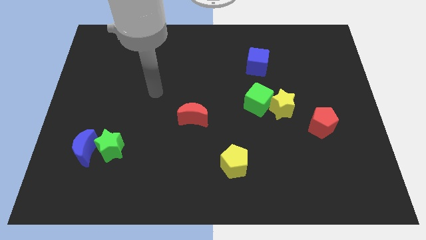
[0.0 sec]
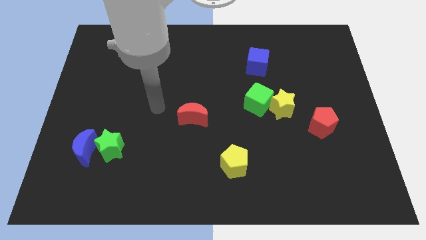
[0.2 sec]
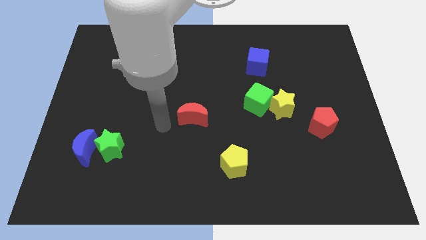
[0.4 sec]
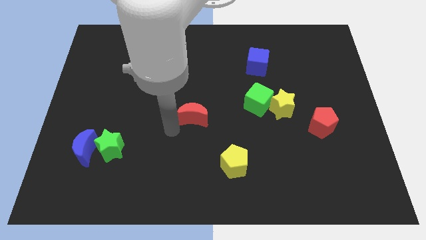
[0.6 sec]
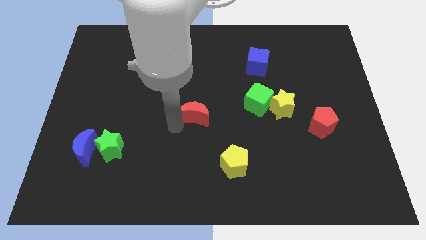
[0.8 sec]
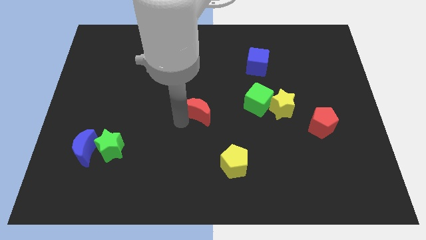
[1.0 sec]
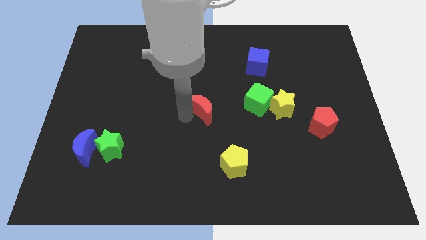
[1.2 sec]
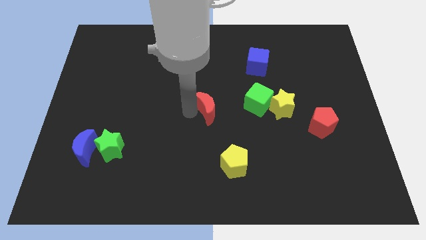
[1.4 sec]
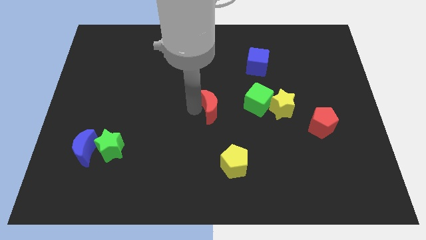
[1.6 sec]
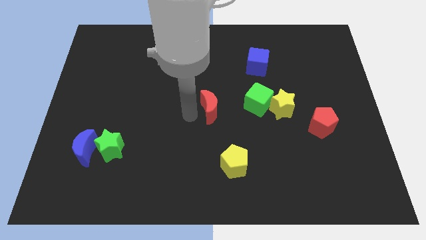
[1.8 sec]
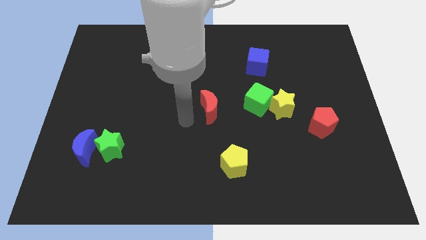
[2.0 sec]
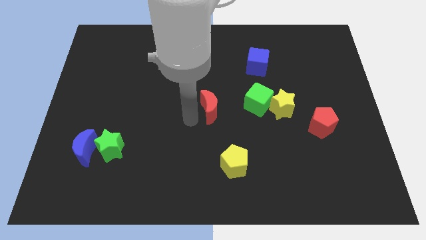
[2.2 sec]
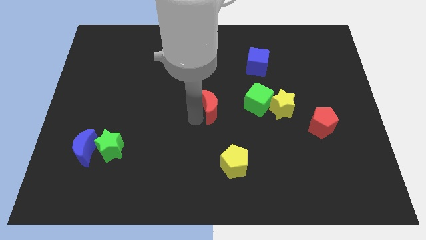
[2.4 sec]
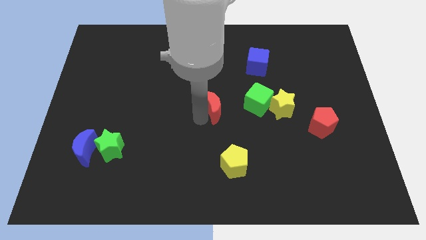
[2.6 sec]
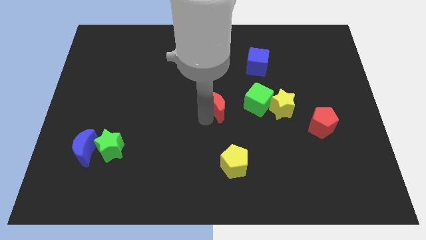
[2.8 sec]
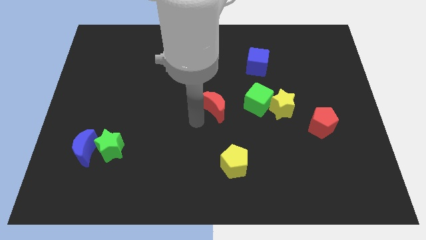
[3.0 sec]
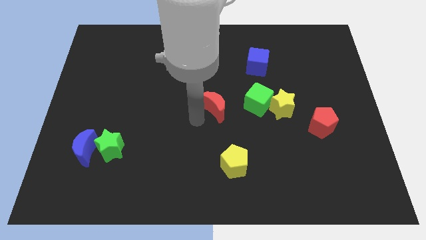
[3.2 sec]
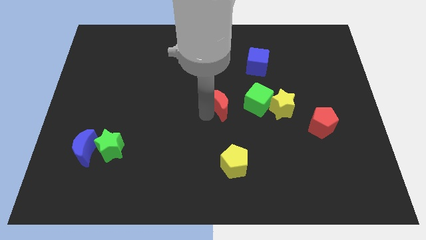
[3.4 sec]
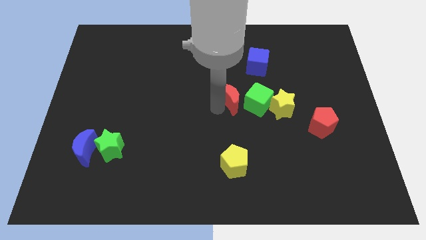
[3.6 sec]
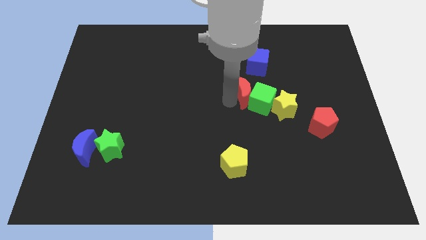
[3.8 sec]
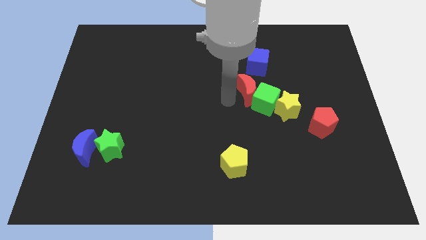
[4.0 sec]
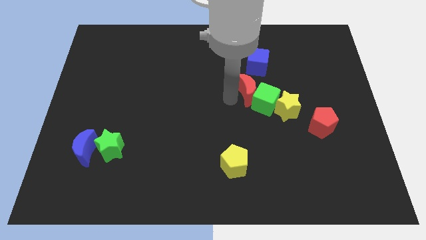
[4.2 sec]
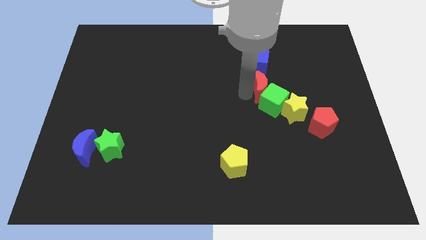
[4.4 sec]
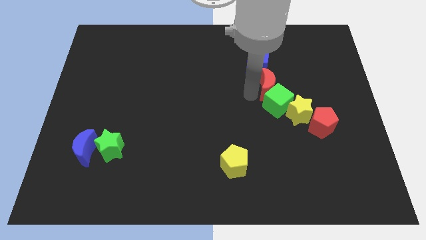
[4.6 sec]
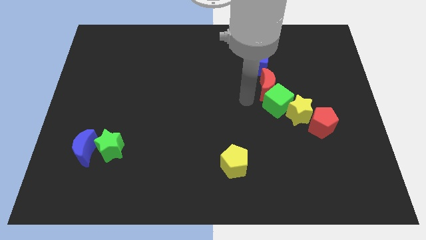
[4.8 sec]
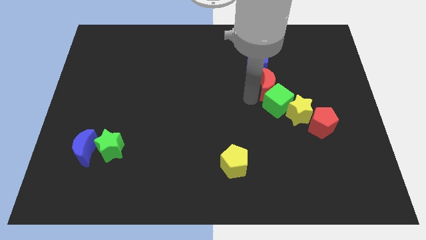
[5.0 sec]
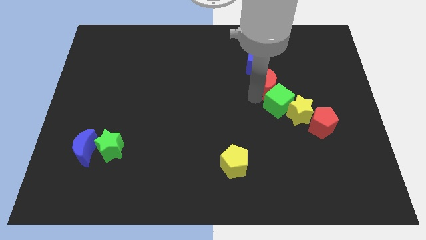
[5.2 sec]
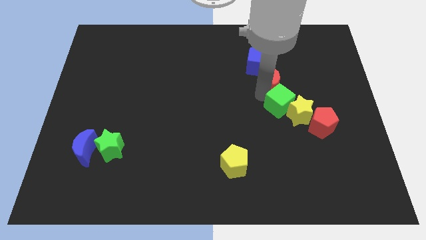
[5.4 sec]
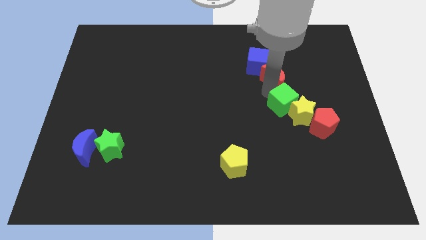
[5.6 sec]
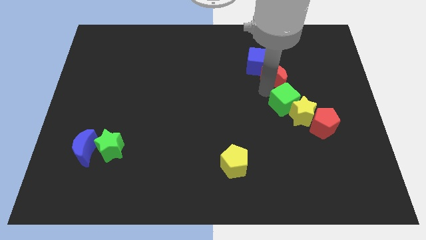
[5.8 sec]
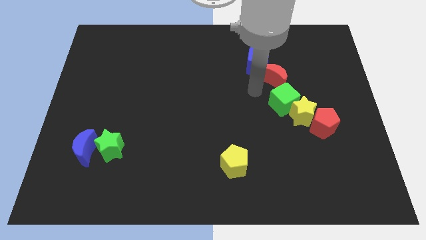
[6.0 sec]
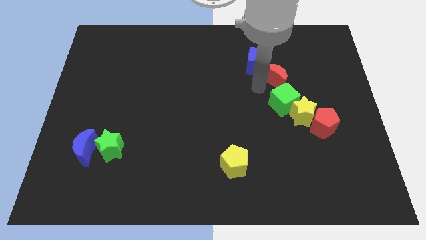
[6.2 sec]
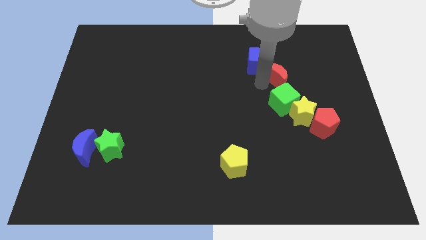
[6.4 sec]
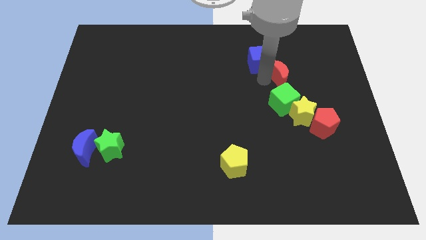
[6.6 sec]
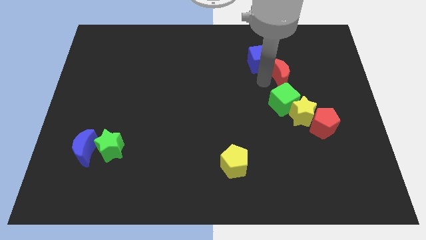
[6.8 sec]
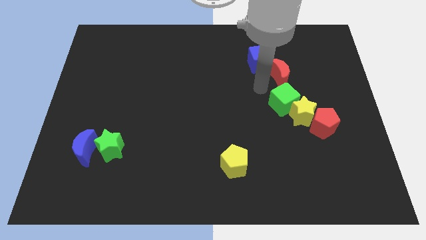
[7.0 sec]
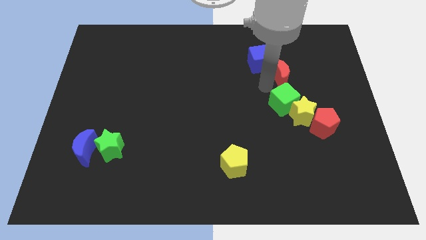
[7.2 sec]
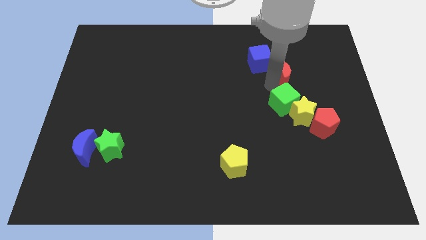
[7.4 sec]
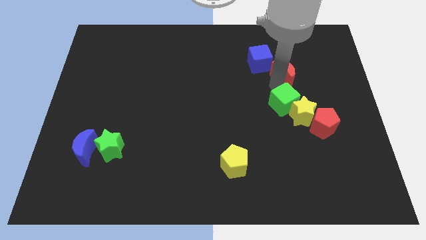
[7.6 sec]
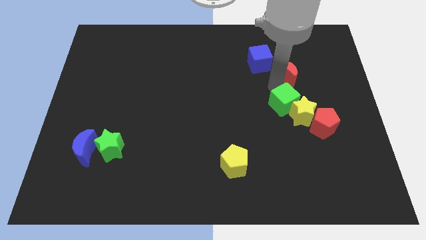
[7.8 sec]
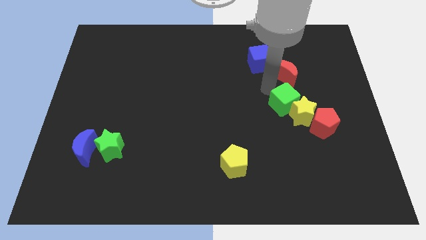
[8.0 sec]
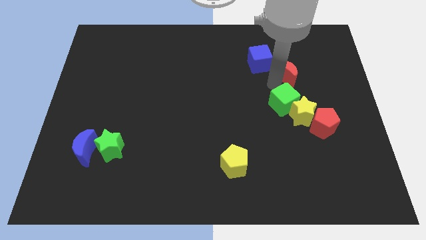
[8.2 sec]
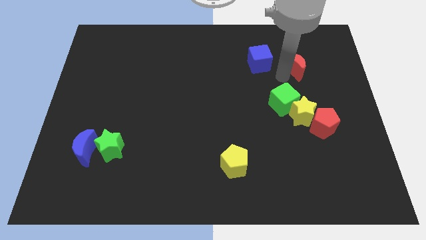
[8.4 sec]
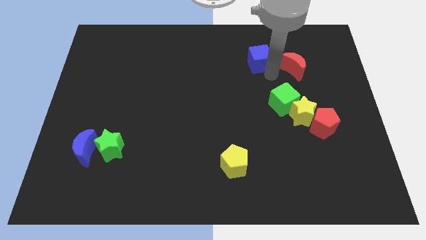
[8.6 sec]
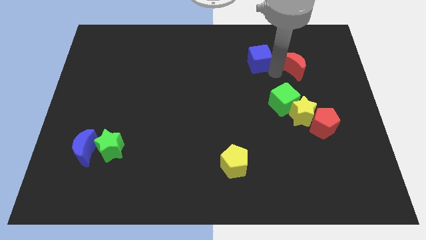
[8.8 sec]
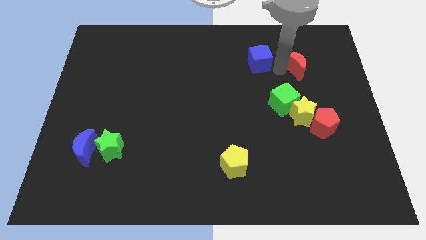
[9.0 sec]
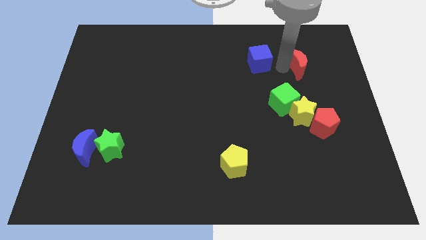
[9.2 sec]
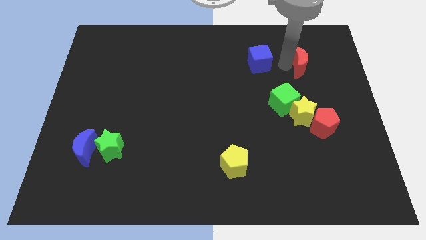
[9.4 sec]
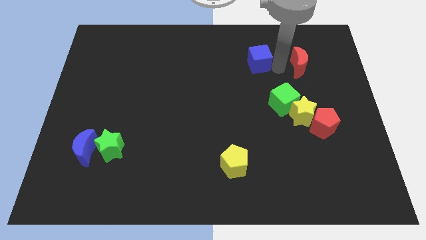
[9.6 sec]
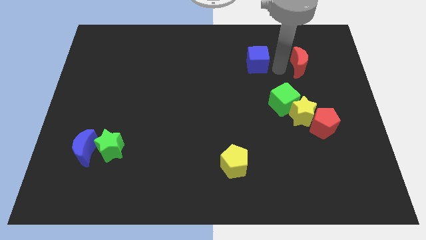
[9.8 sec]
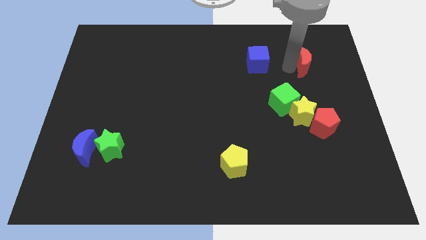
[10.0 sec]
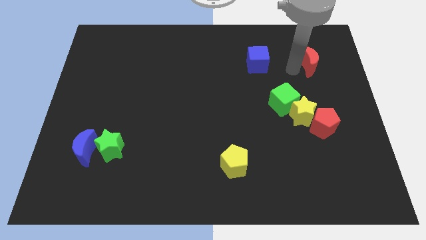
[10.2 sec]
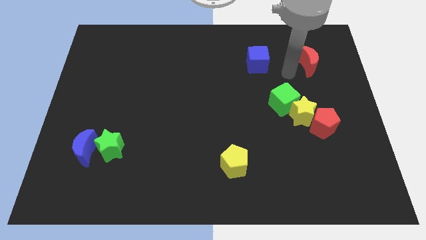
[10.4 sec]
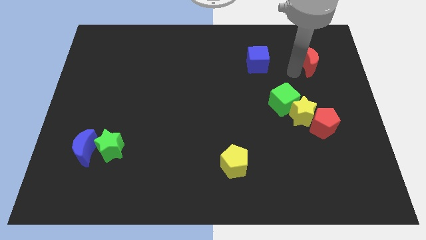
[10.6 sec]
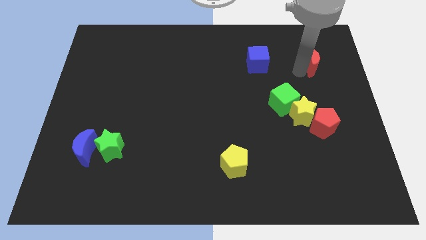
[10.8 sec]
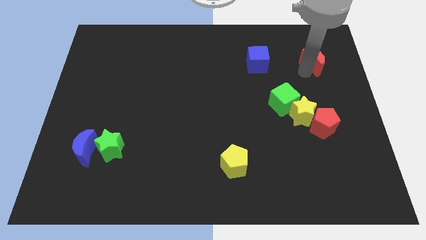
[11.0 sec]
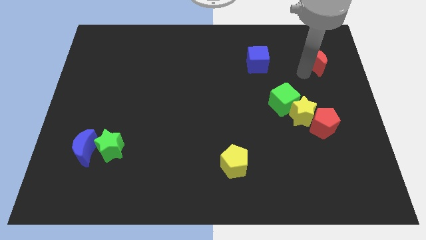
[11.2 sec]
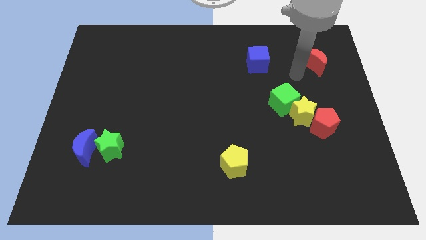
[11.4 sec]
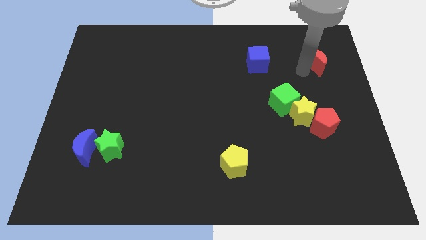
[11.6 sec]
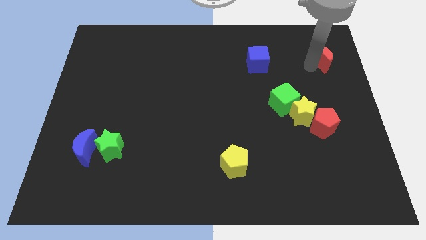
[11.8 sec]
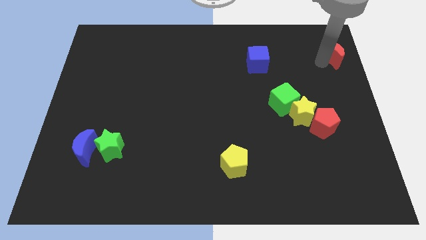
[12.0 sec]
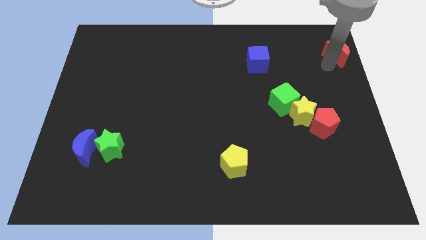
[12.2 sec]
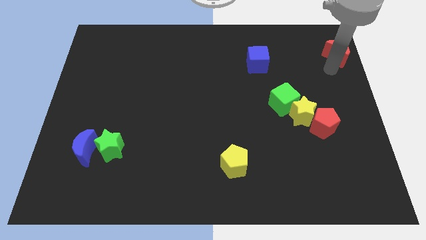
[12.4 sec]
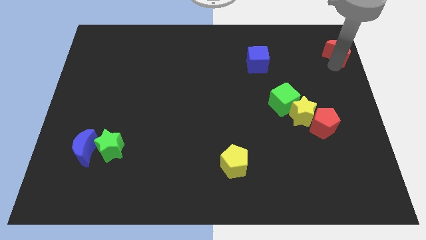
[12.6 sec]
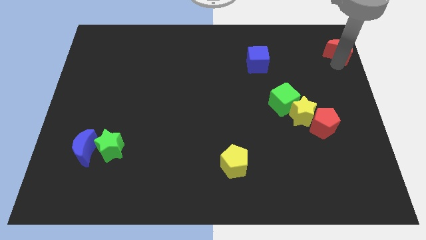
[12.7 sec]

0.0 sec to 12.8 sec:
move the red moon to the top right corner
